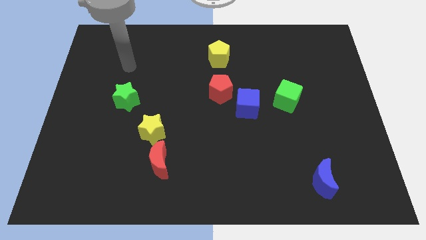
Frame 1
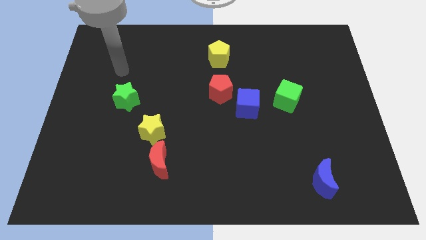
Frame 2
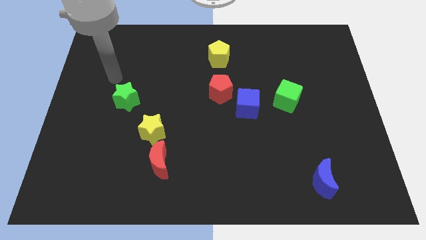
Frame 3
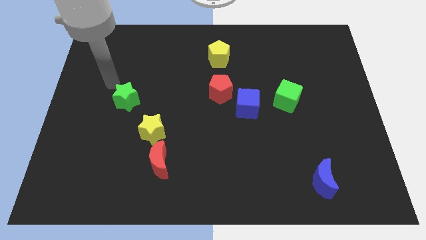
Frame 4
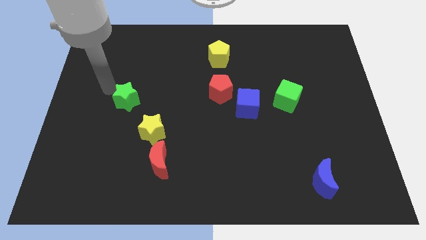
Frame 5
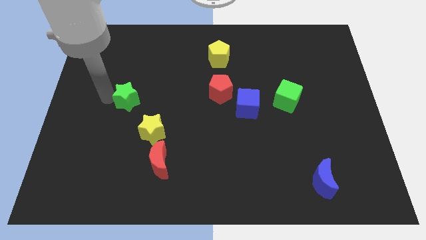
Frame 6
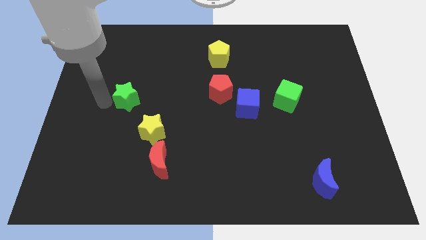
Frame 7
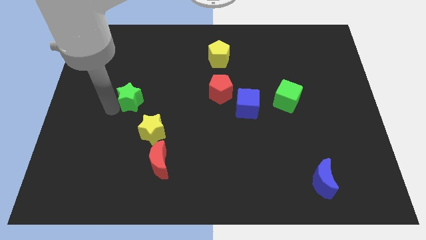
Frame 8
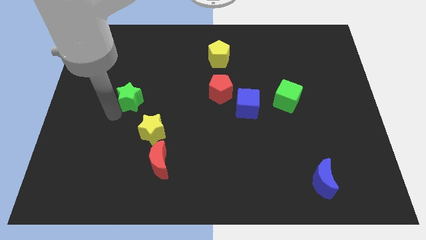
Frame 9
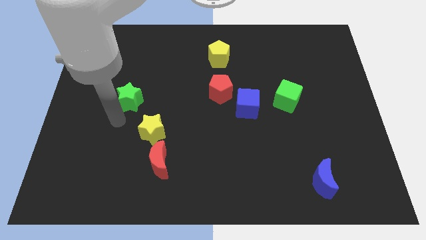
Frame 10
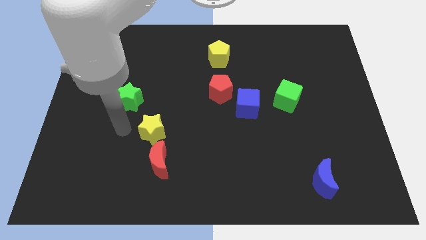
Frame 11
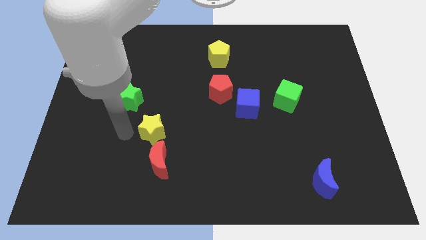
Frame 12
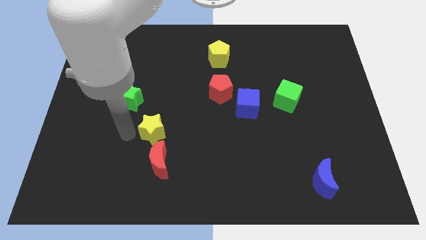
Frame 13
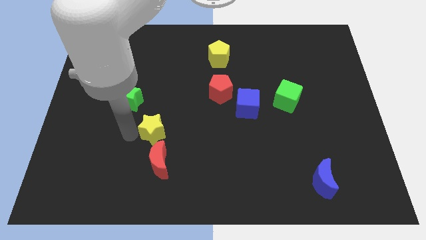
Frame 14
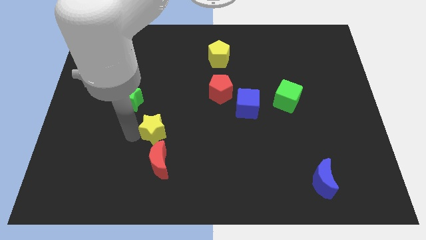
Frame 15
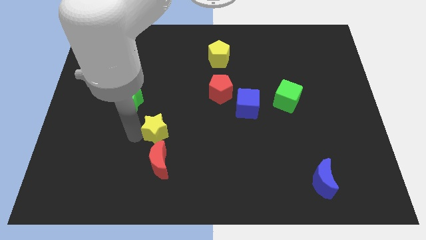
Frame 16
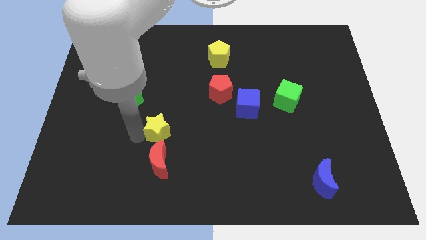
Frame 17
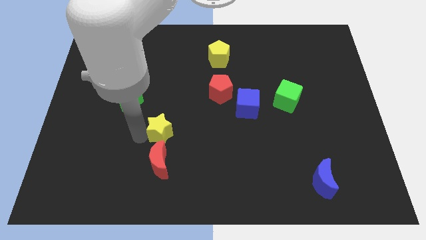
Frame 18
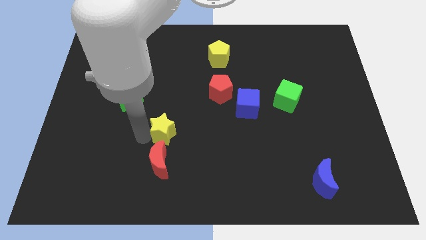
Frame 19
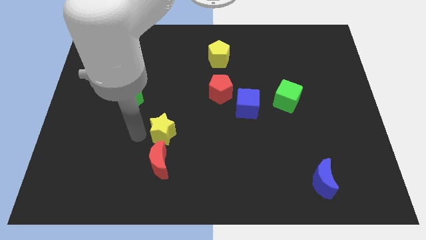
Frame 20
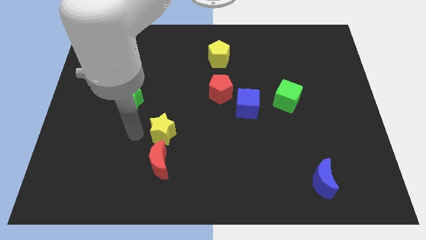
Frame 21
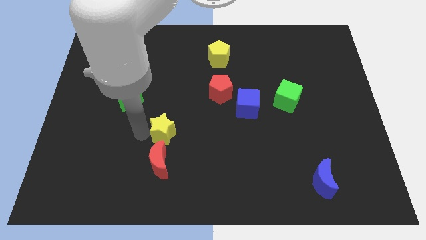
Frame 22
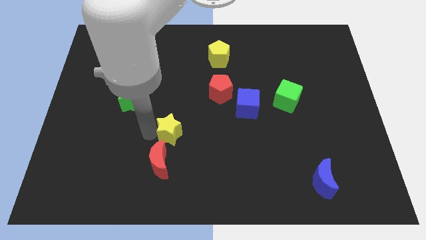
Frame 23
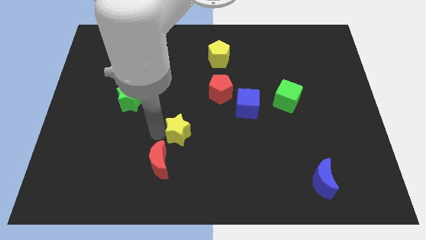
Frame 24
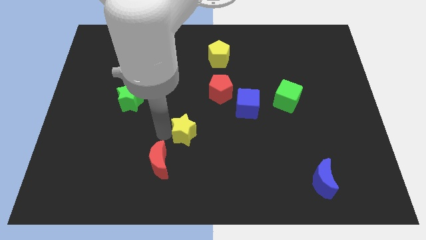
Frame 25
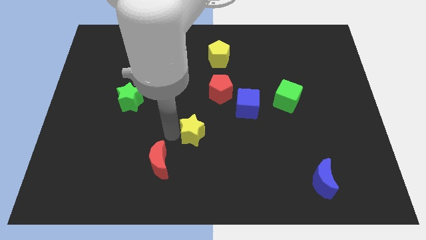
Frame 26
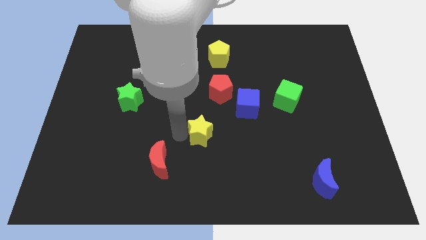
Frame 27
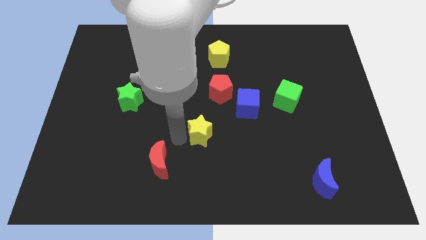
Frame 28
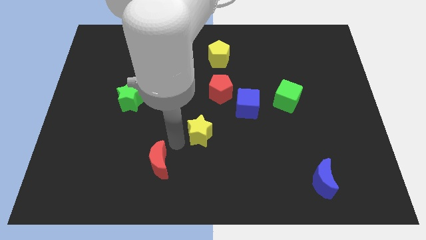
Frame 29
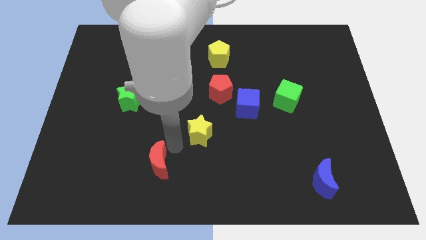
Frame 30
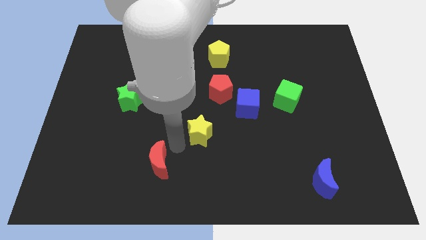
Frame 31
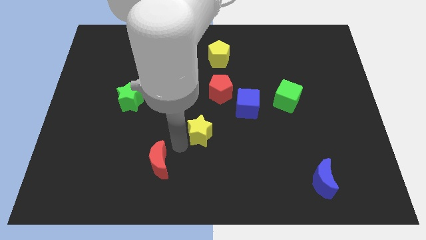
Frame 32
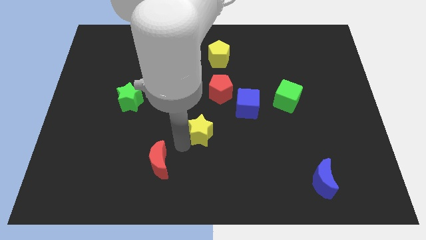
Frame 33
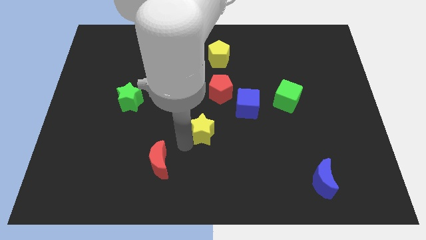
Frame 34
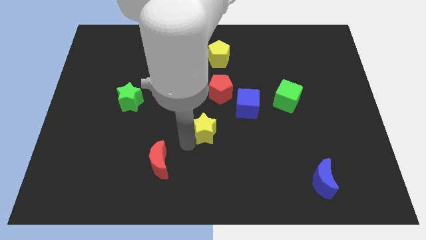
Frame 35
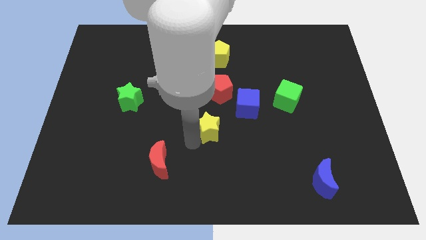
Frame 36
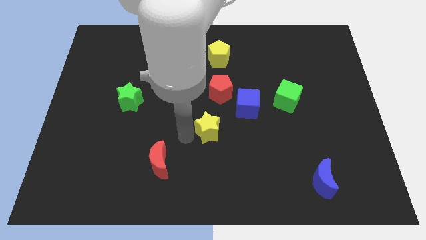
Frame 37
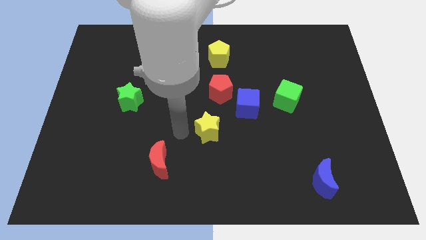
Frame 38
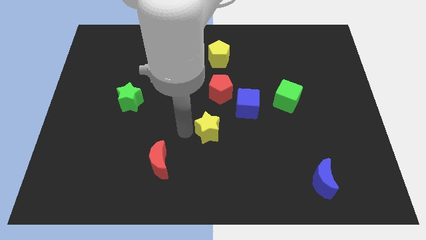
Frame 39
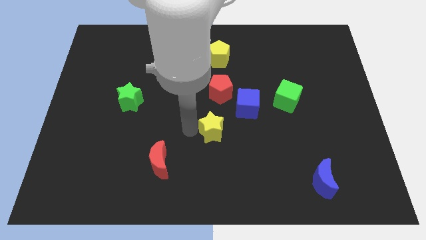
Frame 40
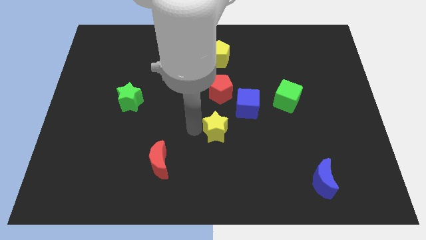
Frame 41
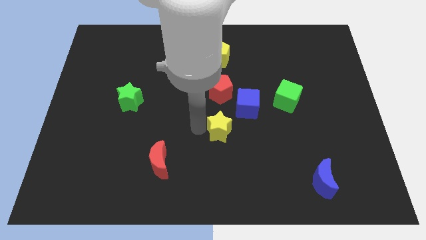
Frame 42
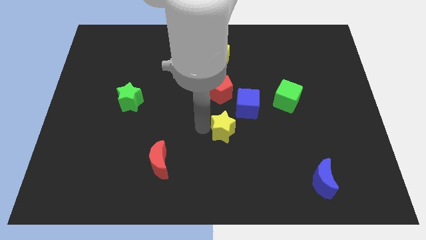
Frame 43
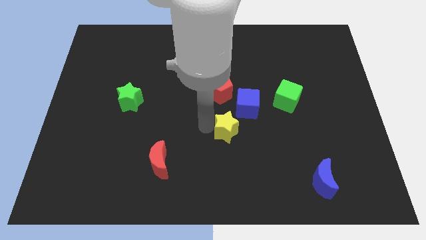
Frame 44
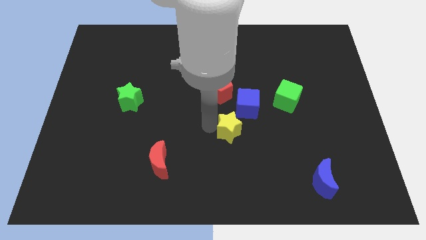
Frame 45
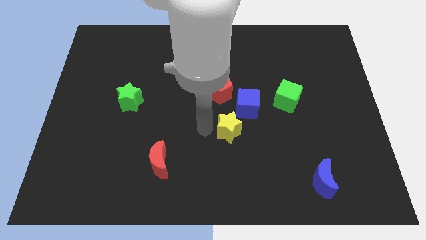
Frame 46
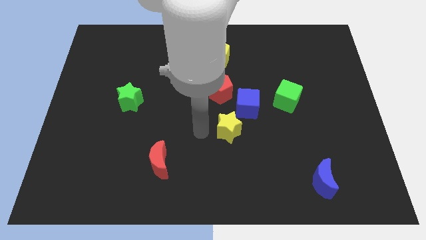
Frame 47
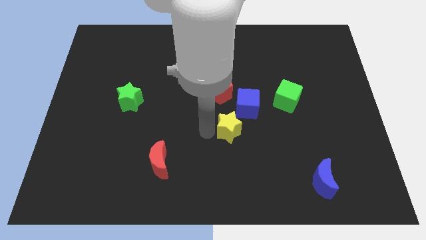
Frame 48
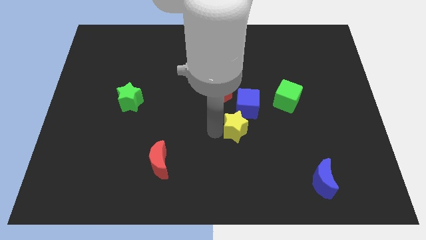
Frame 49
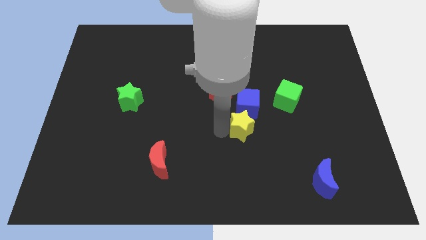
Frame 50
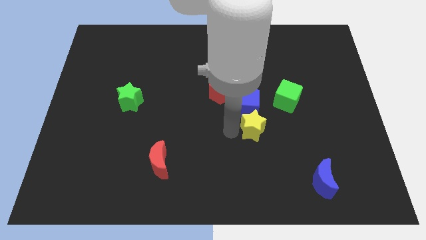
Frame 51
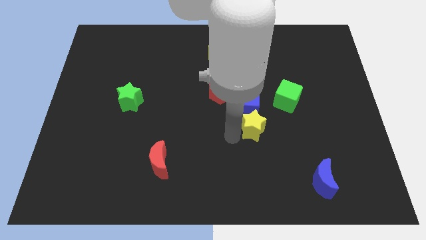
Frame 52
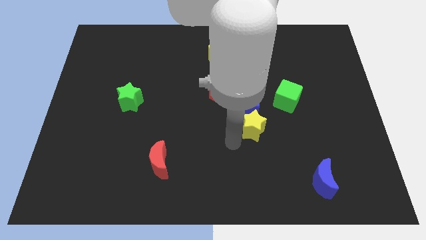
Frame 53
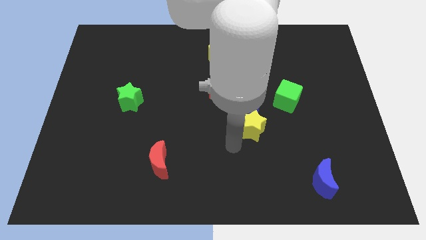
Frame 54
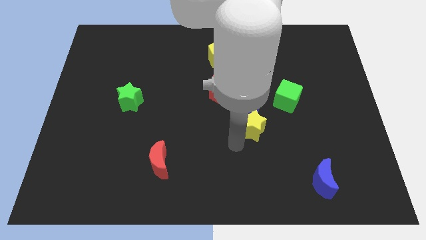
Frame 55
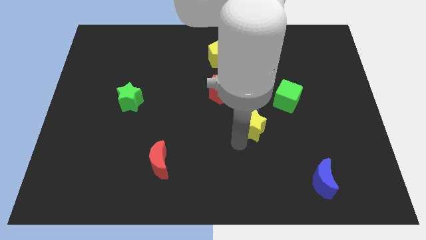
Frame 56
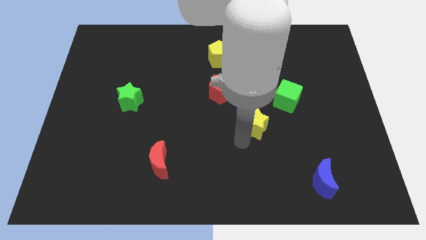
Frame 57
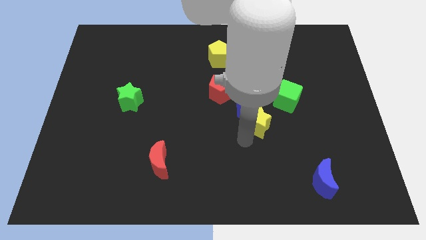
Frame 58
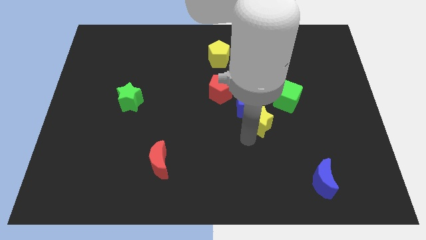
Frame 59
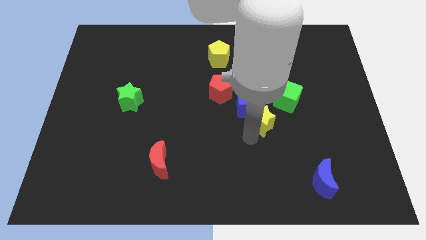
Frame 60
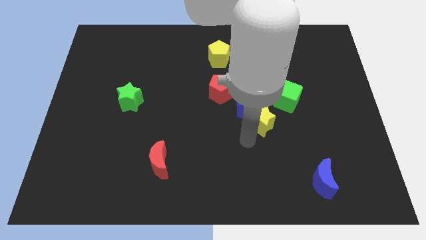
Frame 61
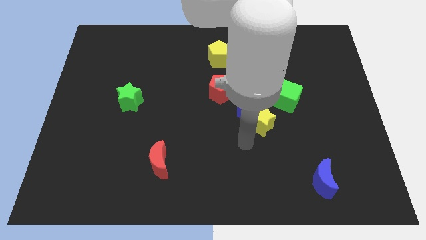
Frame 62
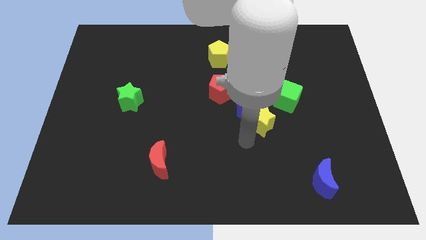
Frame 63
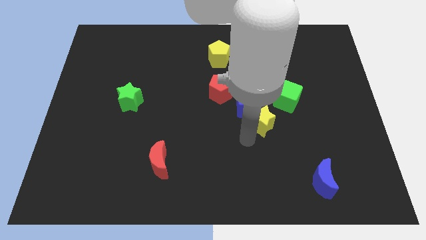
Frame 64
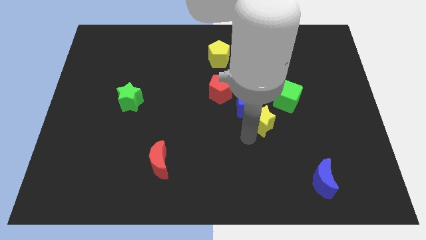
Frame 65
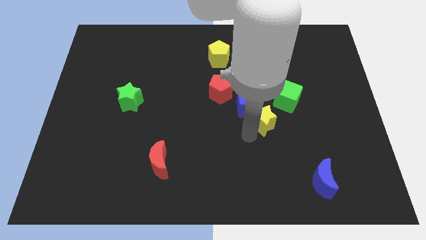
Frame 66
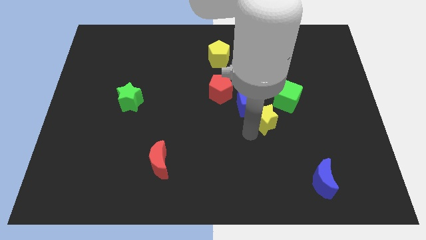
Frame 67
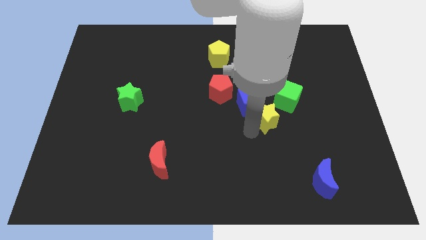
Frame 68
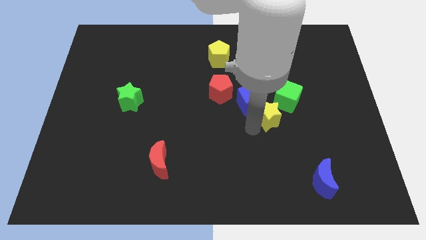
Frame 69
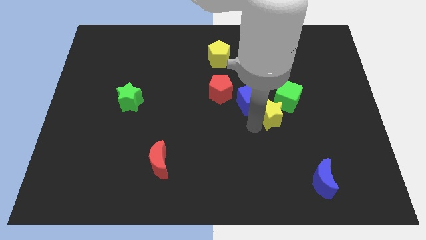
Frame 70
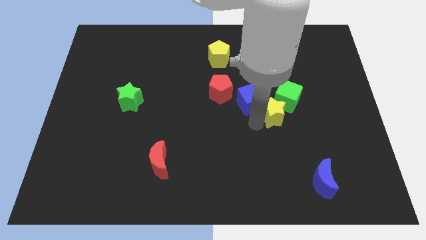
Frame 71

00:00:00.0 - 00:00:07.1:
slide the yellow star next to the green cube

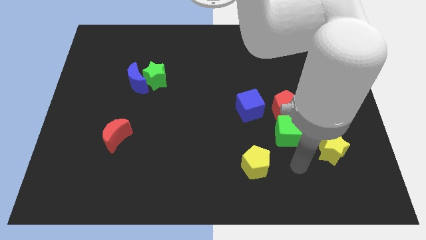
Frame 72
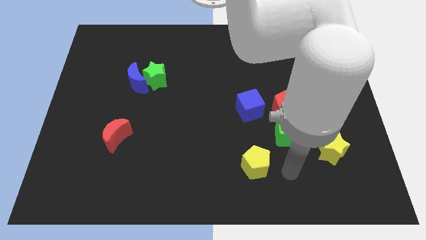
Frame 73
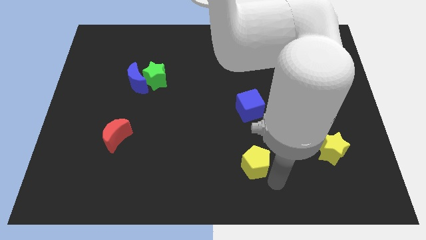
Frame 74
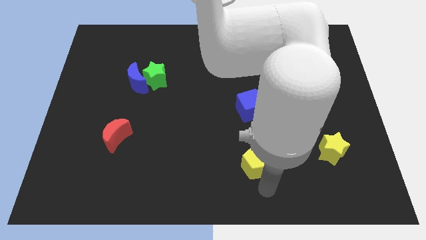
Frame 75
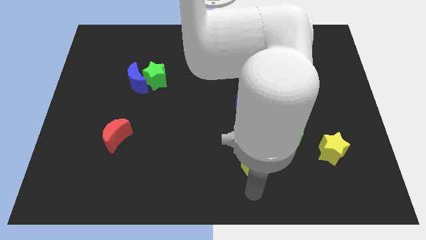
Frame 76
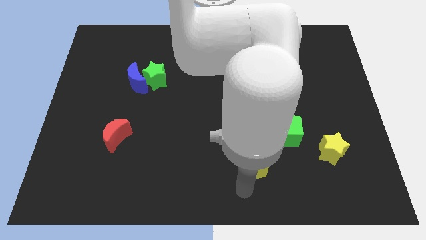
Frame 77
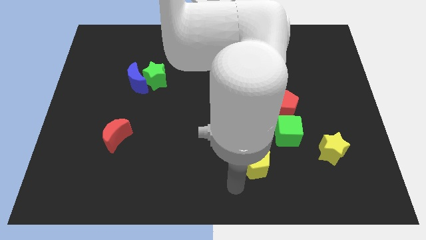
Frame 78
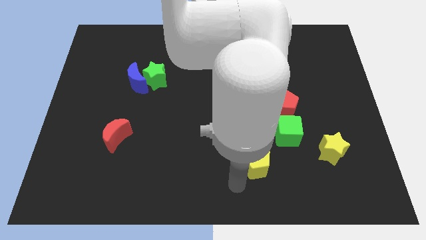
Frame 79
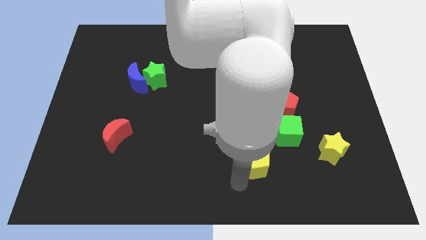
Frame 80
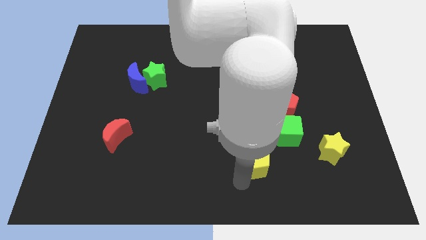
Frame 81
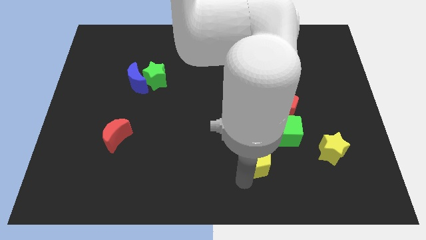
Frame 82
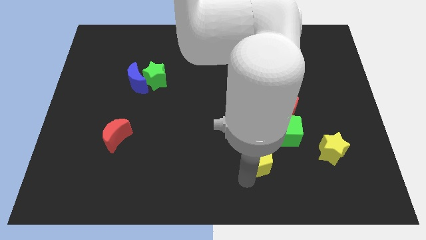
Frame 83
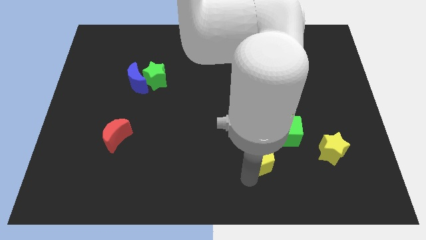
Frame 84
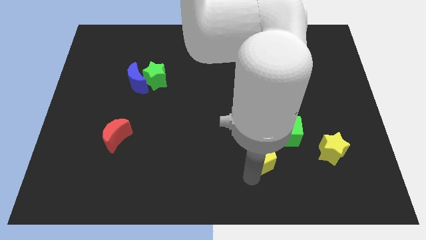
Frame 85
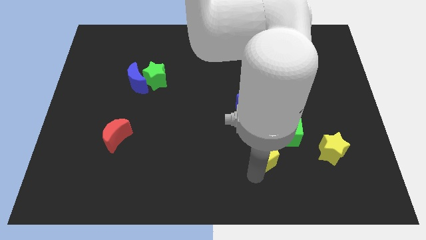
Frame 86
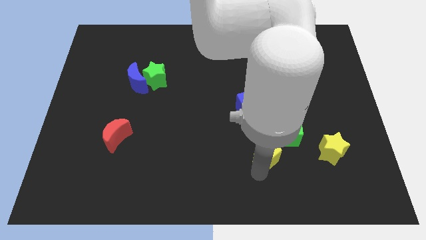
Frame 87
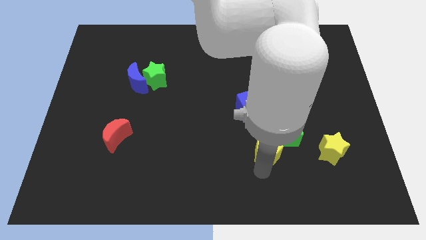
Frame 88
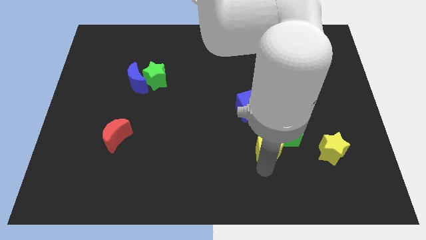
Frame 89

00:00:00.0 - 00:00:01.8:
slide the yellow pentagon towards the green cube
